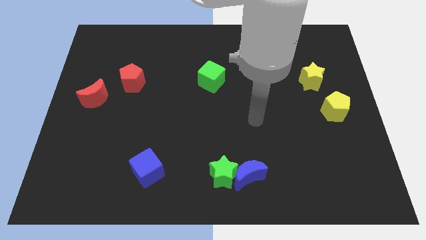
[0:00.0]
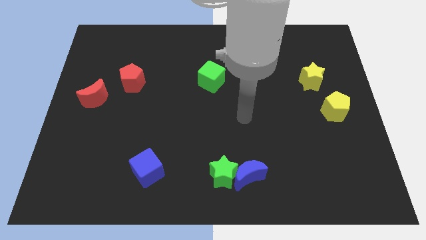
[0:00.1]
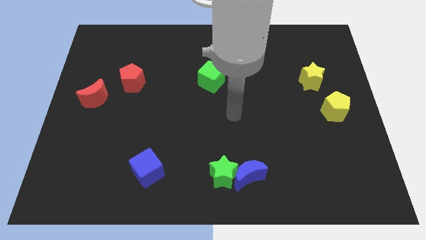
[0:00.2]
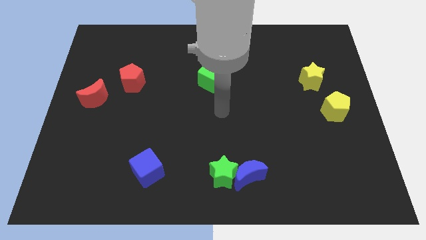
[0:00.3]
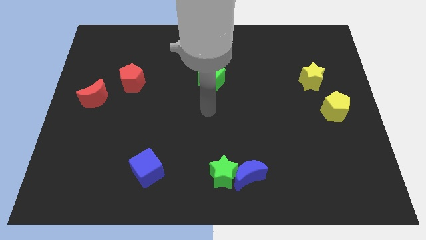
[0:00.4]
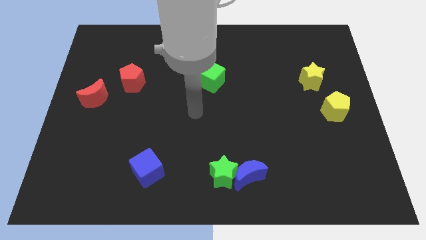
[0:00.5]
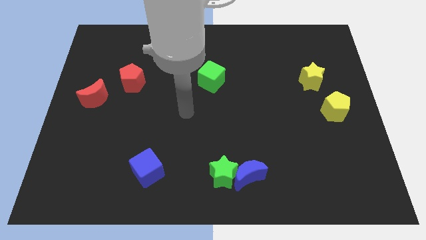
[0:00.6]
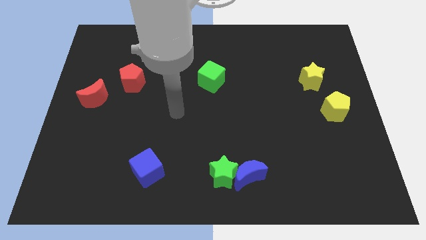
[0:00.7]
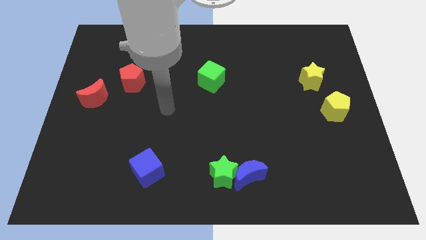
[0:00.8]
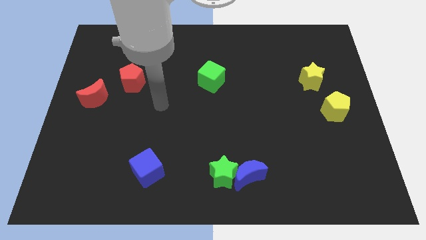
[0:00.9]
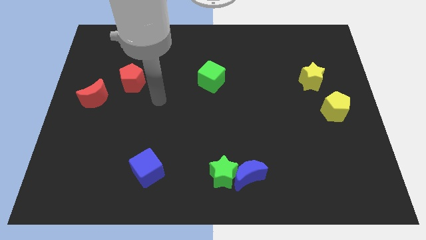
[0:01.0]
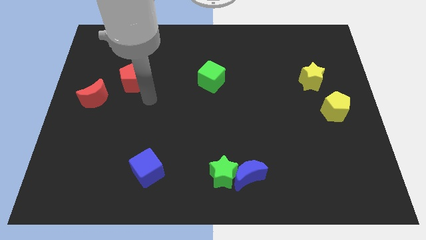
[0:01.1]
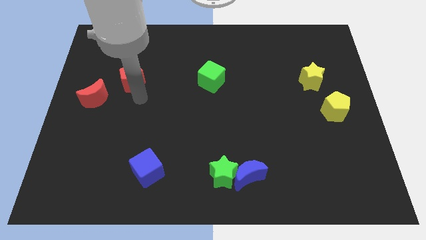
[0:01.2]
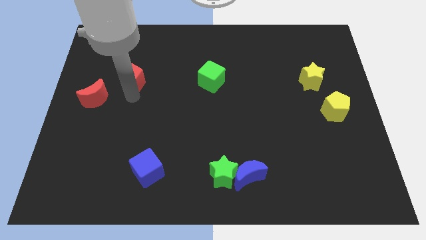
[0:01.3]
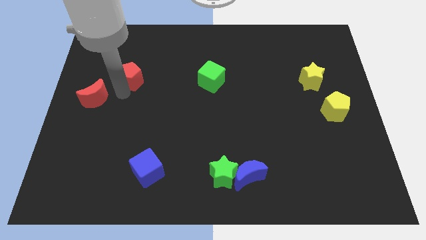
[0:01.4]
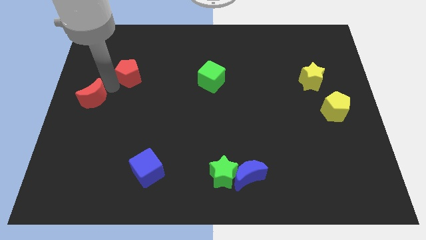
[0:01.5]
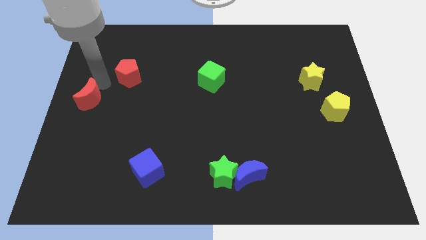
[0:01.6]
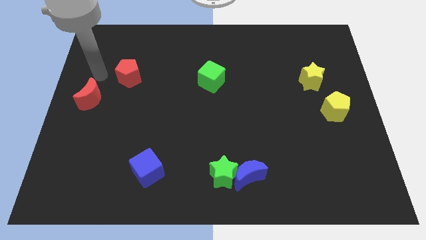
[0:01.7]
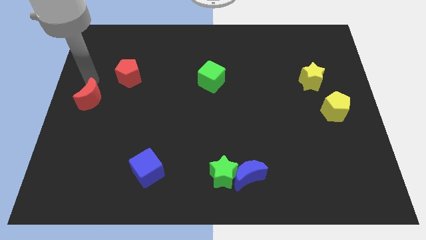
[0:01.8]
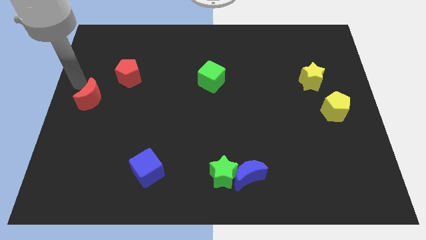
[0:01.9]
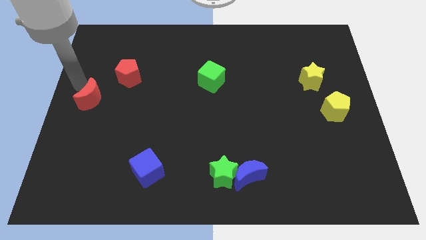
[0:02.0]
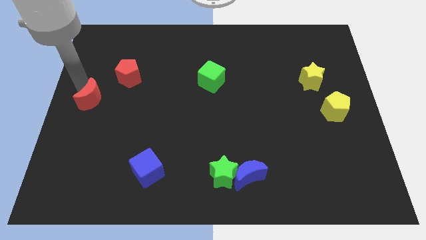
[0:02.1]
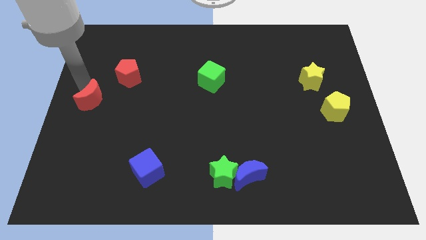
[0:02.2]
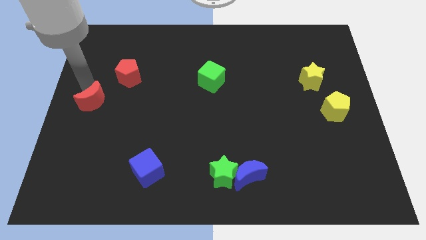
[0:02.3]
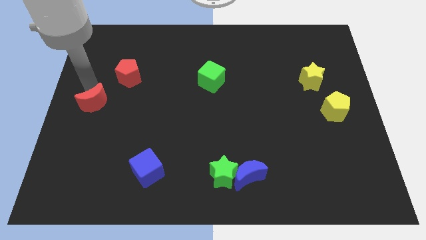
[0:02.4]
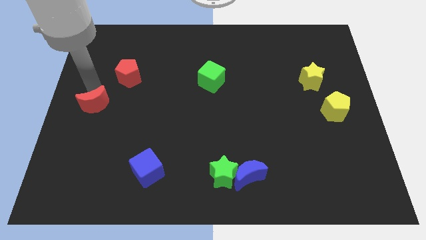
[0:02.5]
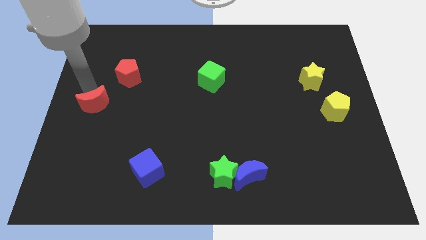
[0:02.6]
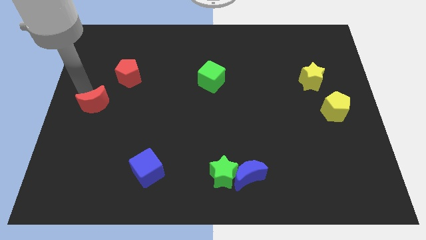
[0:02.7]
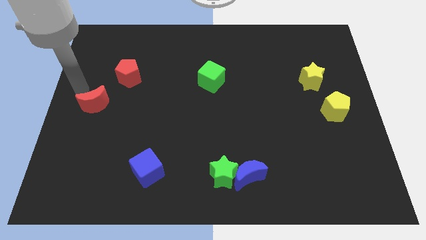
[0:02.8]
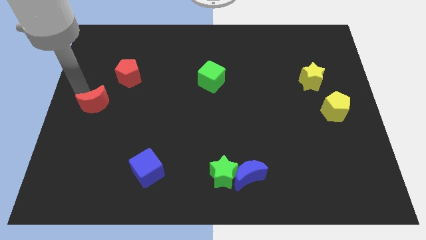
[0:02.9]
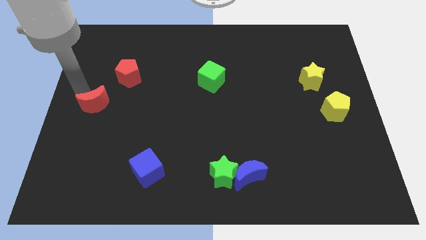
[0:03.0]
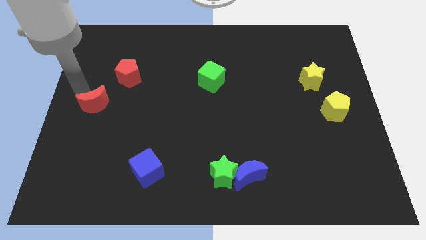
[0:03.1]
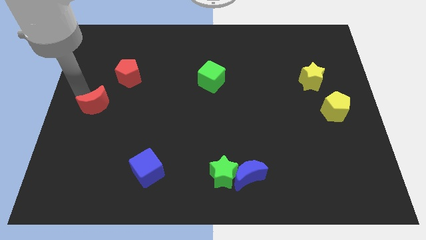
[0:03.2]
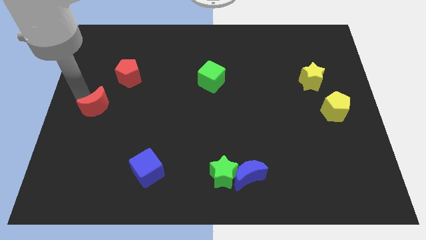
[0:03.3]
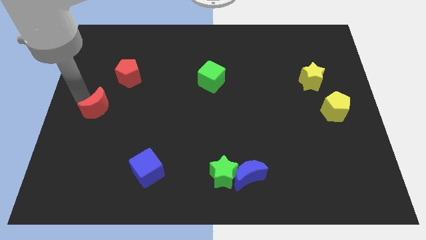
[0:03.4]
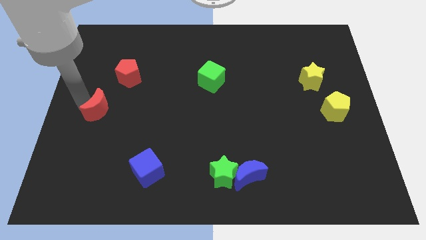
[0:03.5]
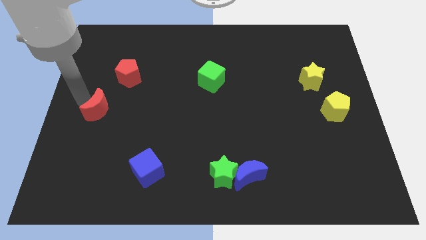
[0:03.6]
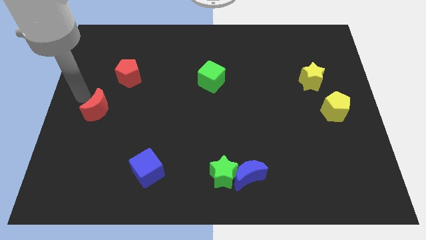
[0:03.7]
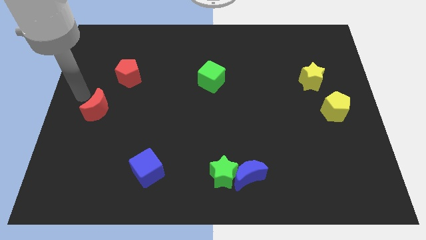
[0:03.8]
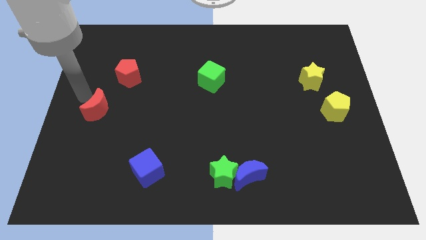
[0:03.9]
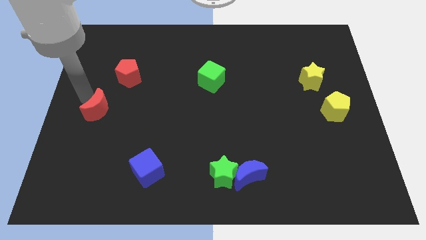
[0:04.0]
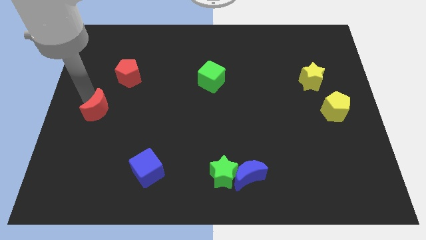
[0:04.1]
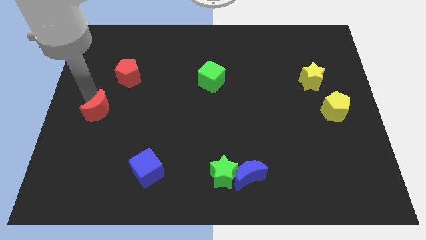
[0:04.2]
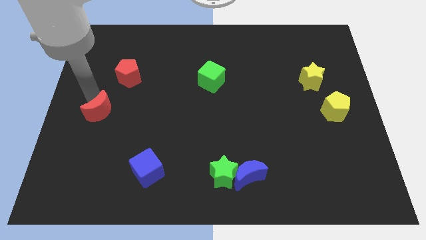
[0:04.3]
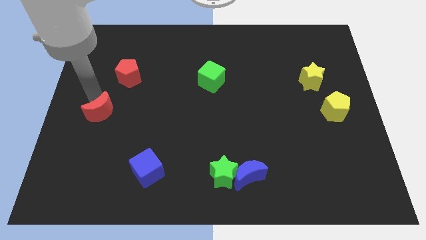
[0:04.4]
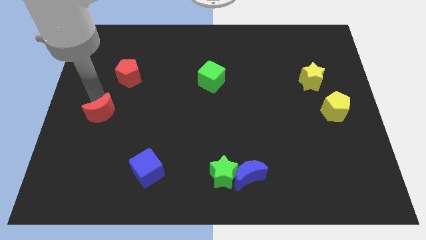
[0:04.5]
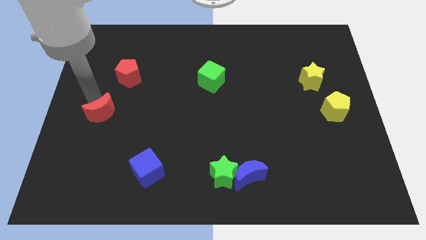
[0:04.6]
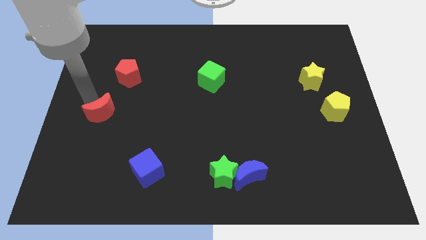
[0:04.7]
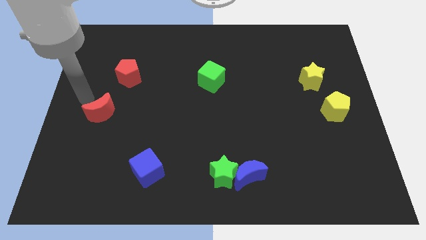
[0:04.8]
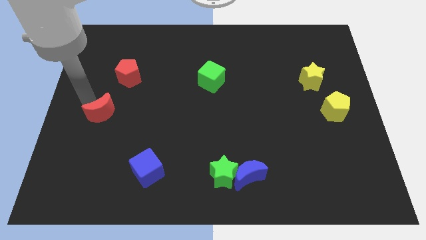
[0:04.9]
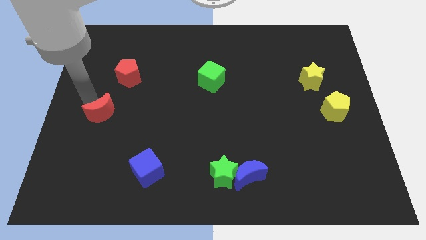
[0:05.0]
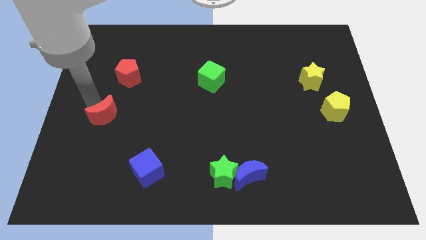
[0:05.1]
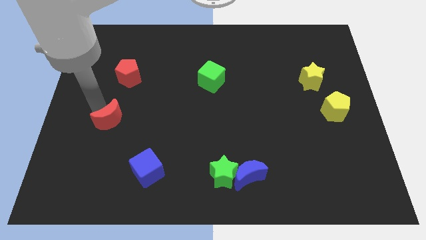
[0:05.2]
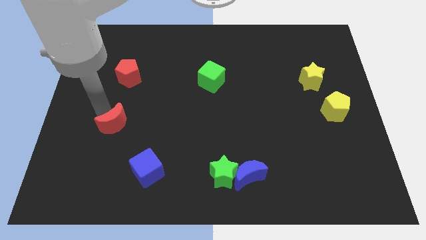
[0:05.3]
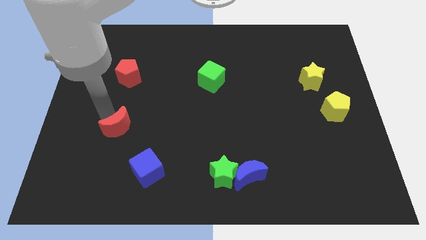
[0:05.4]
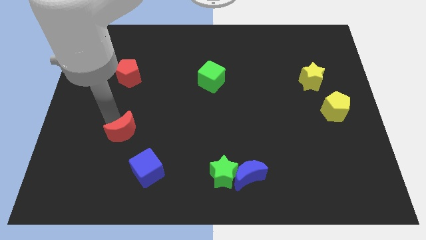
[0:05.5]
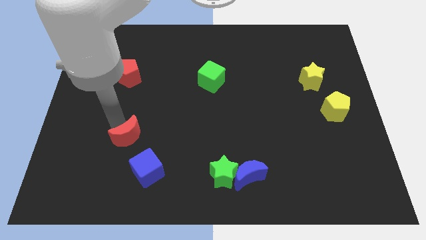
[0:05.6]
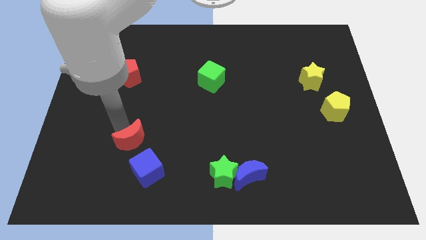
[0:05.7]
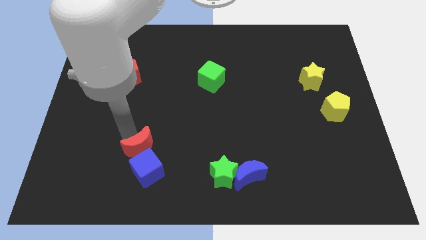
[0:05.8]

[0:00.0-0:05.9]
slide the red moon next to the blue cube

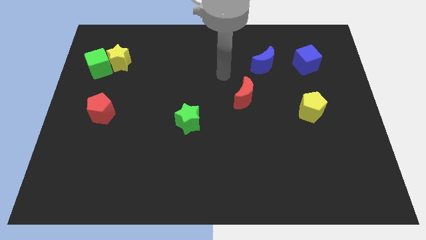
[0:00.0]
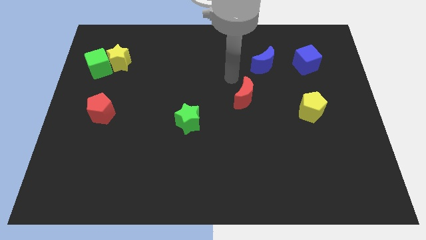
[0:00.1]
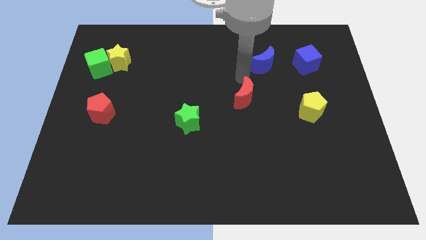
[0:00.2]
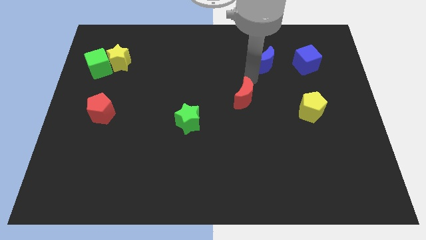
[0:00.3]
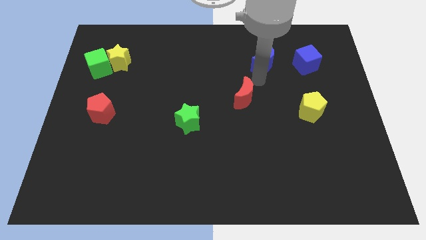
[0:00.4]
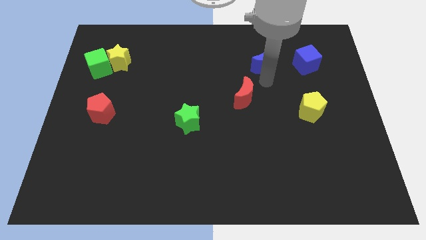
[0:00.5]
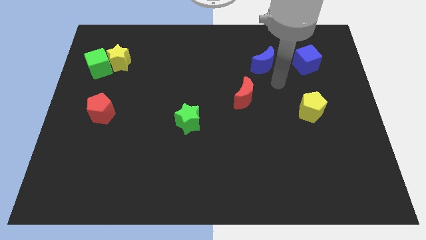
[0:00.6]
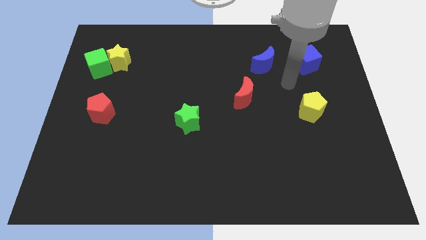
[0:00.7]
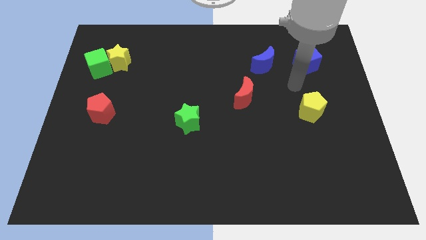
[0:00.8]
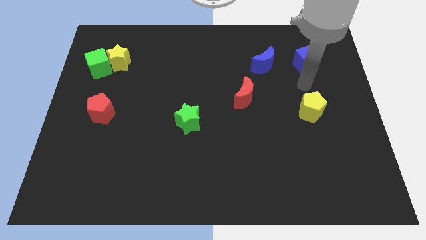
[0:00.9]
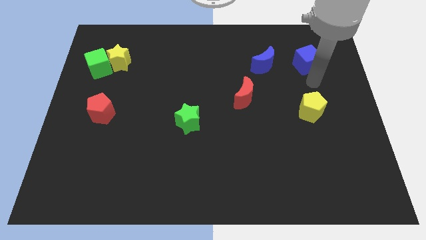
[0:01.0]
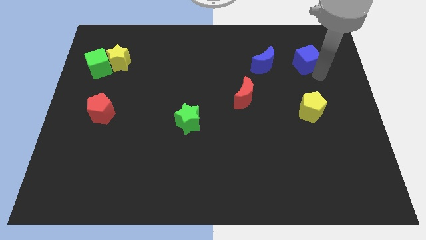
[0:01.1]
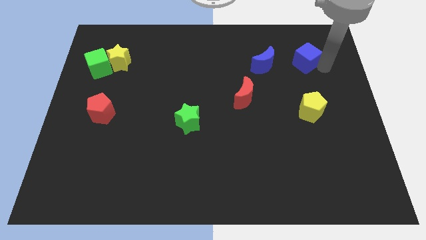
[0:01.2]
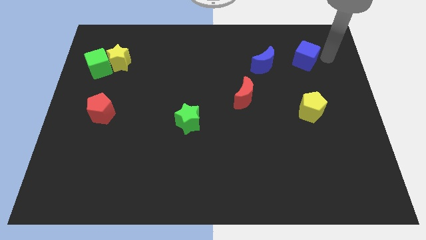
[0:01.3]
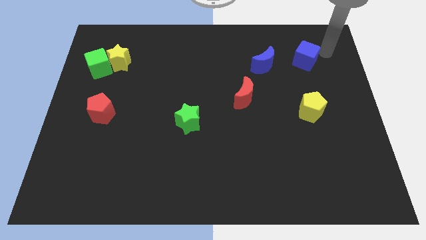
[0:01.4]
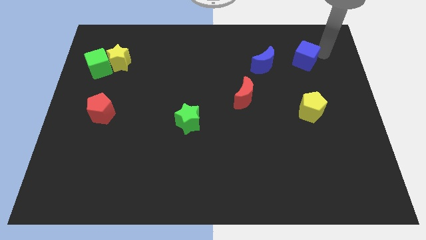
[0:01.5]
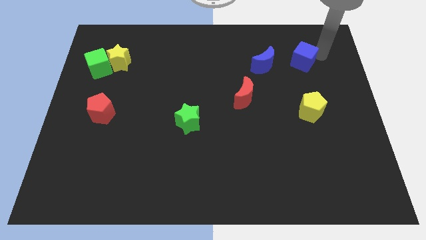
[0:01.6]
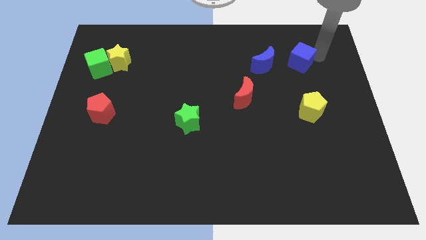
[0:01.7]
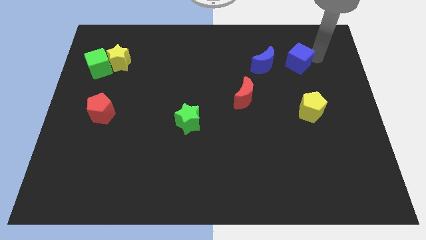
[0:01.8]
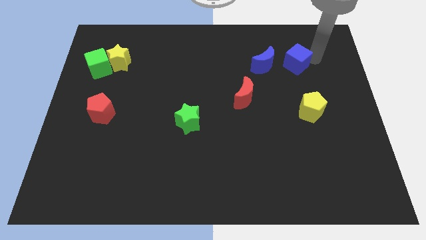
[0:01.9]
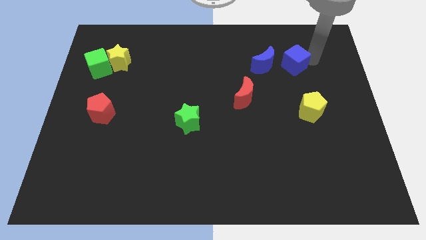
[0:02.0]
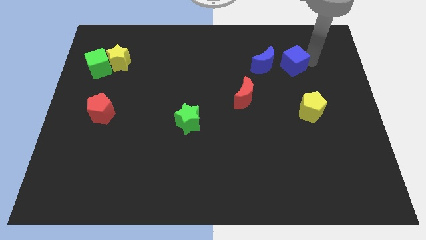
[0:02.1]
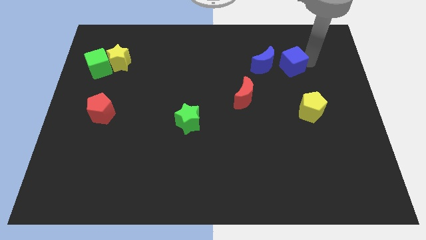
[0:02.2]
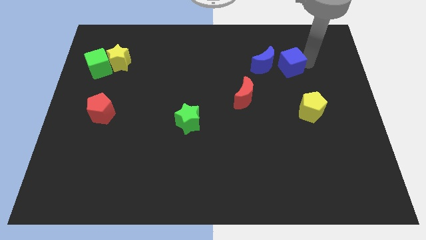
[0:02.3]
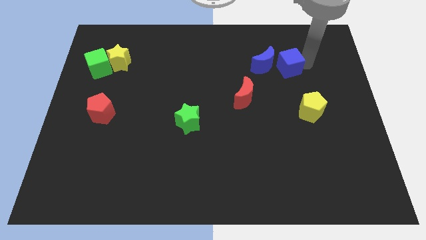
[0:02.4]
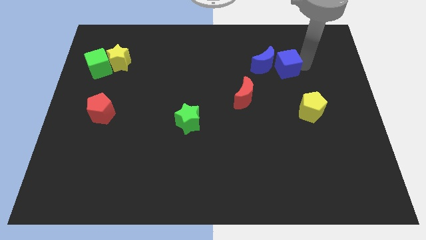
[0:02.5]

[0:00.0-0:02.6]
slide the blue cube to the blue moon
